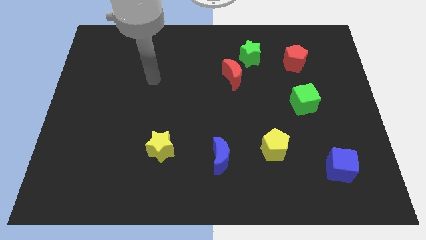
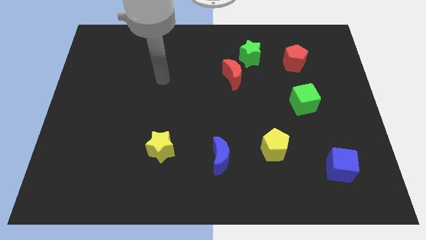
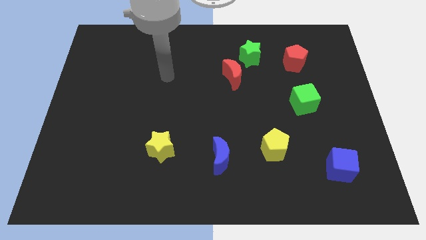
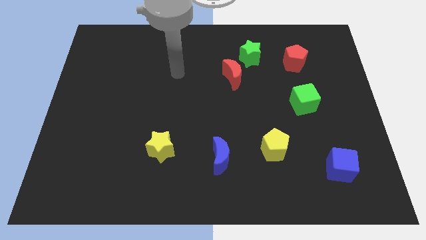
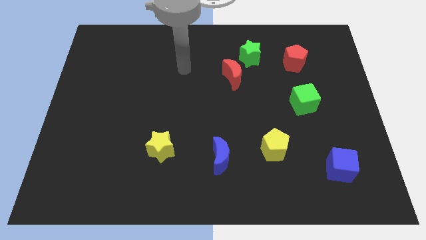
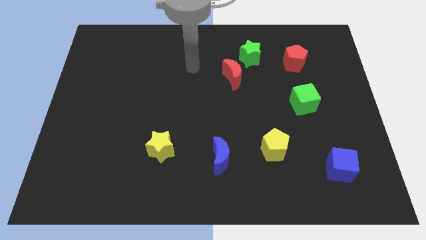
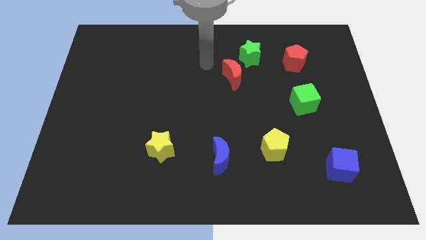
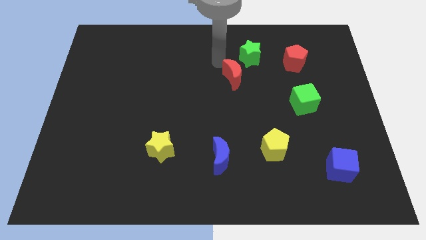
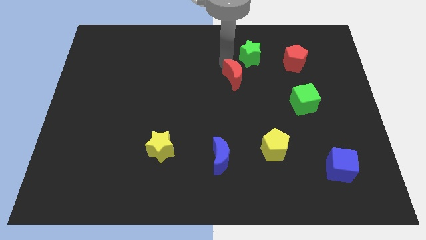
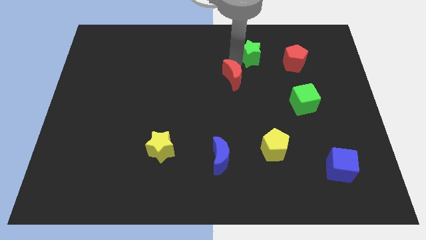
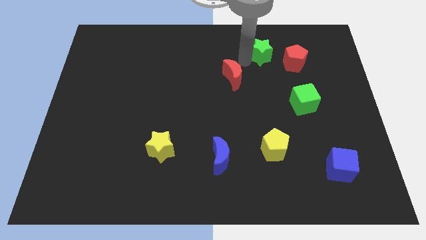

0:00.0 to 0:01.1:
pull the red moon apart from the green star

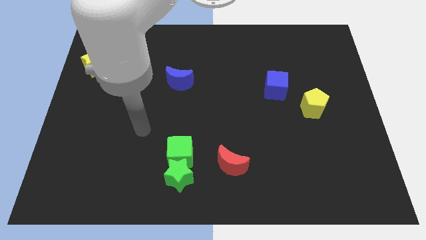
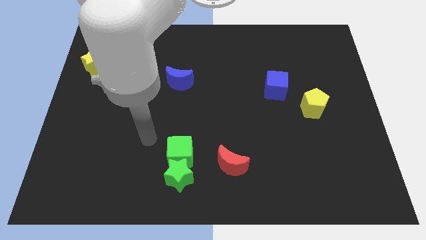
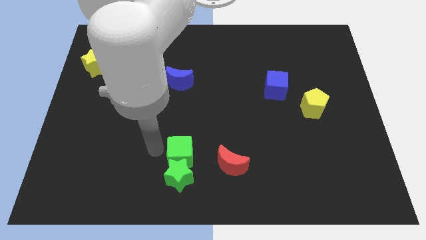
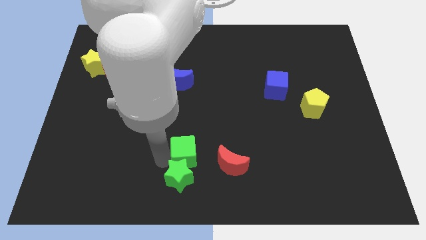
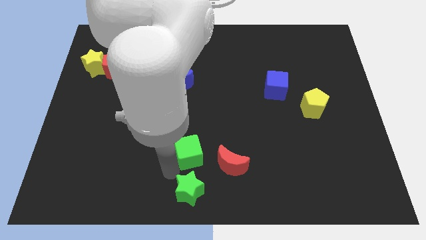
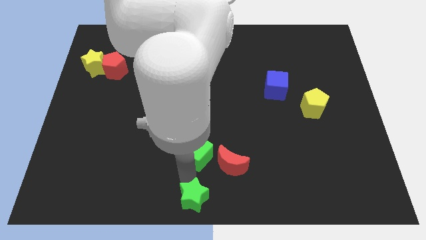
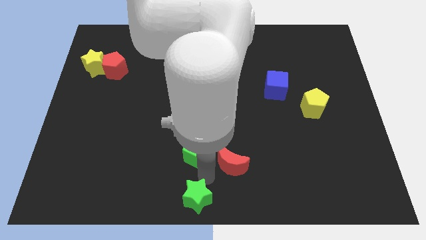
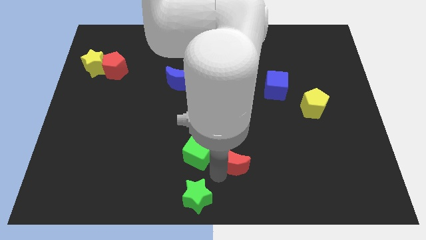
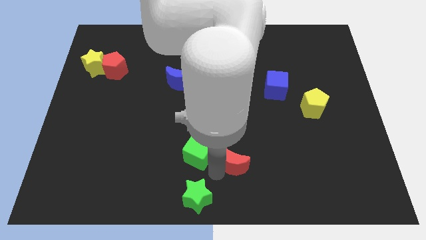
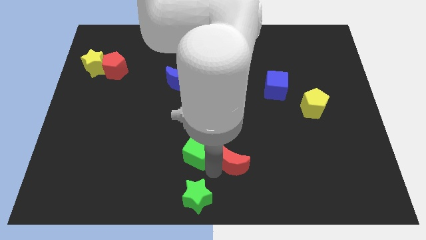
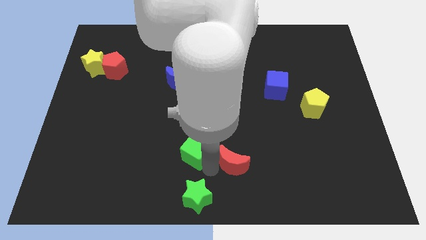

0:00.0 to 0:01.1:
pull the green cube apart from the green star

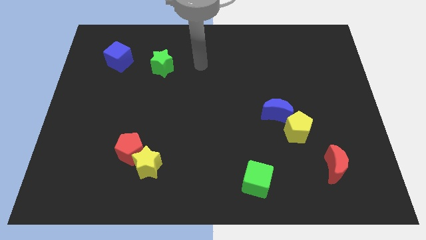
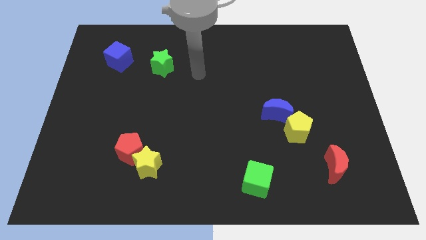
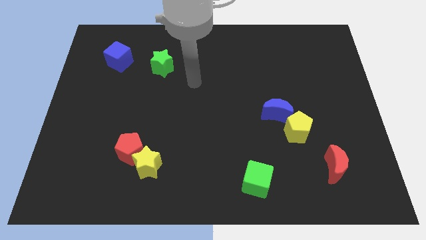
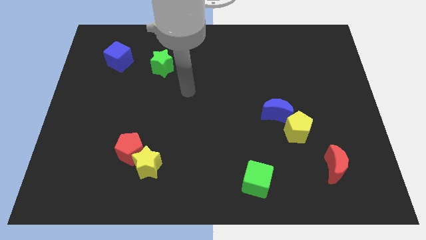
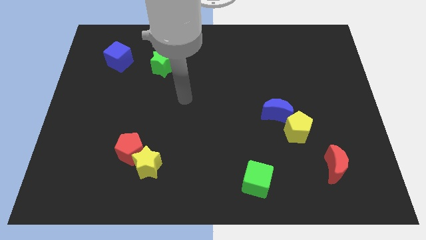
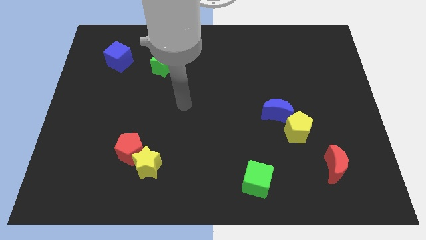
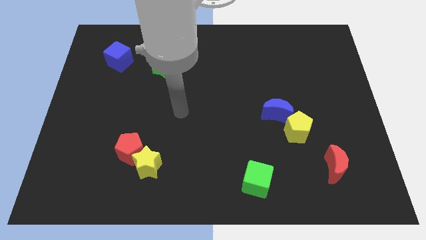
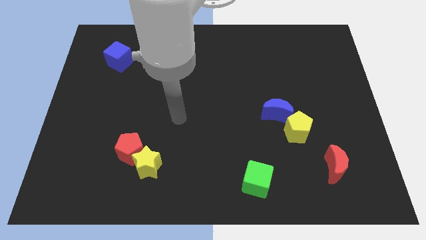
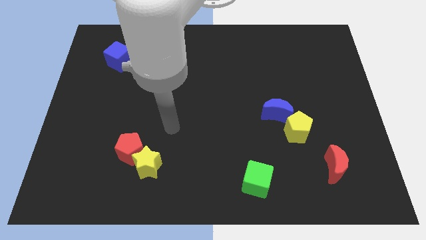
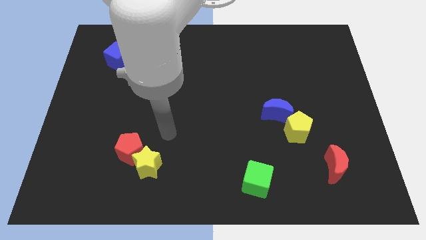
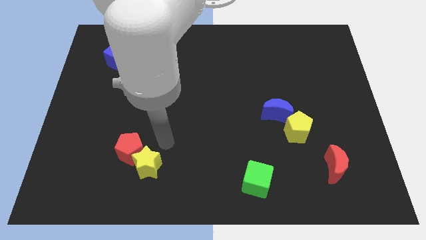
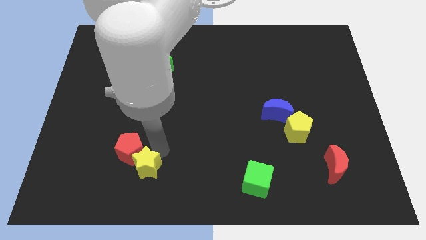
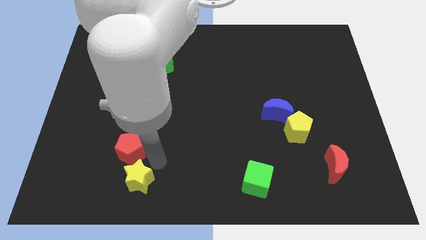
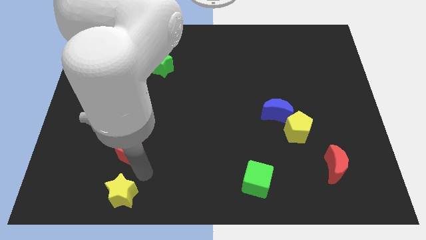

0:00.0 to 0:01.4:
move the red pentagon away from the yellow star

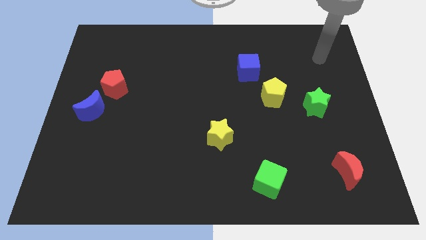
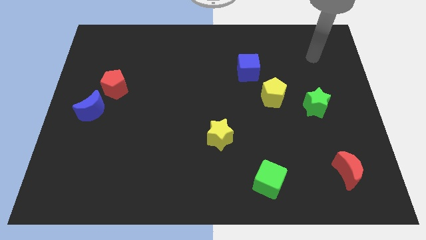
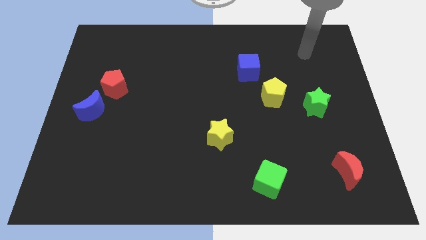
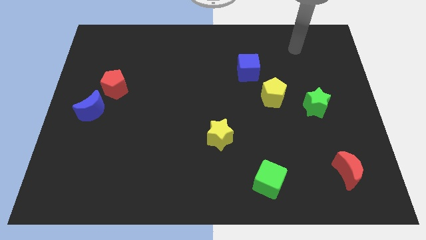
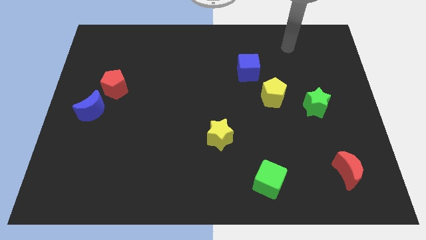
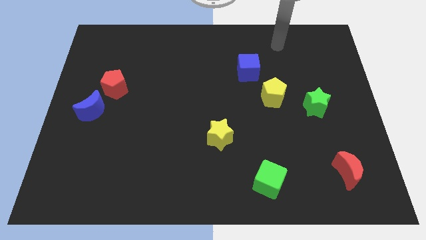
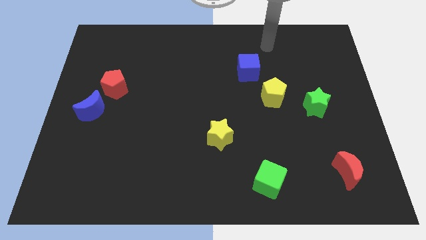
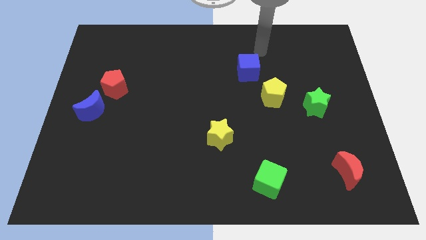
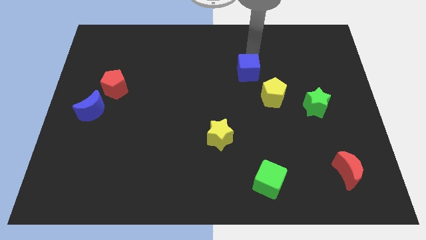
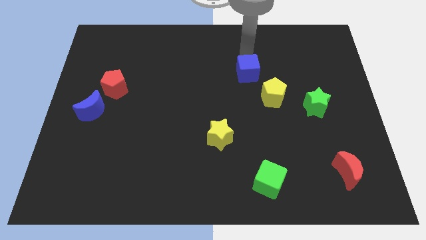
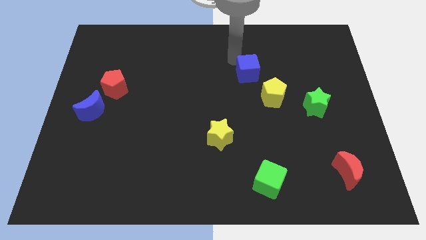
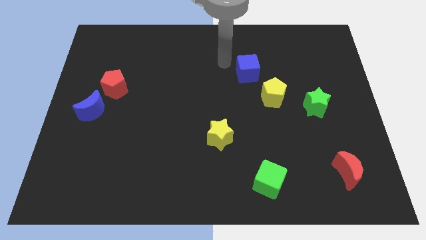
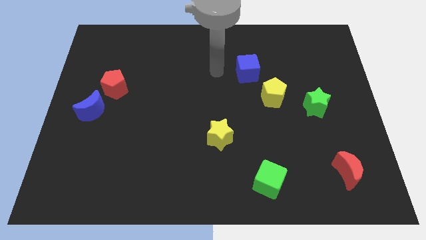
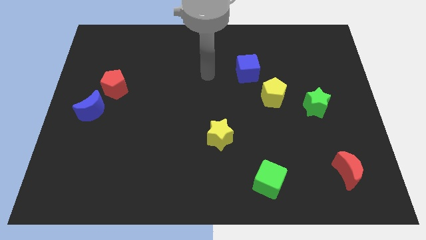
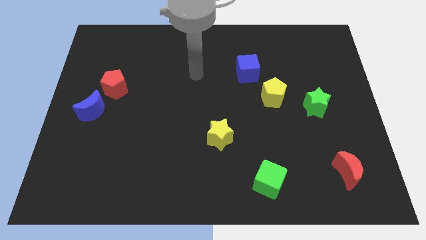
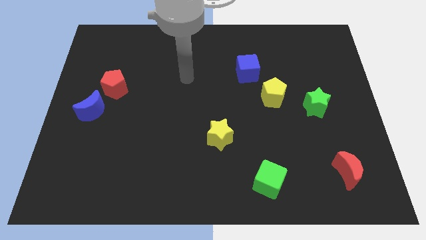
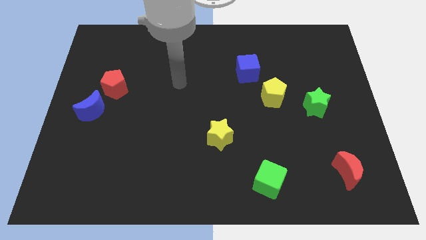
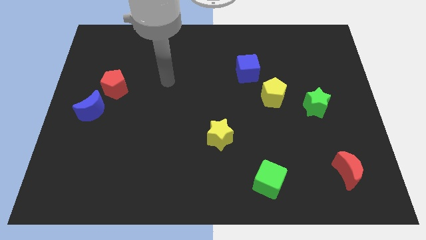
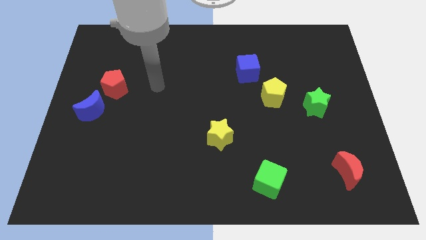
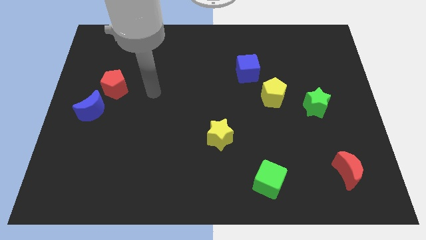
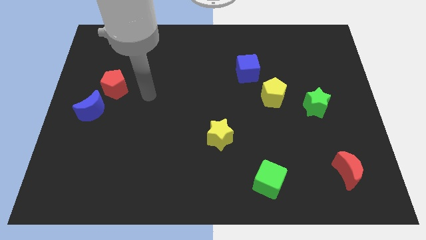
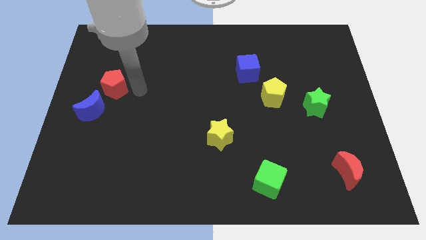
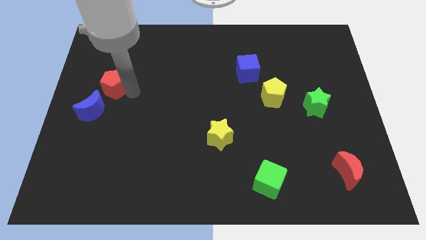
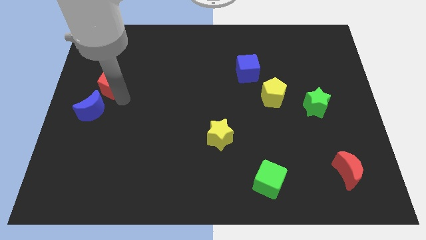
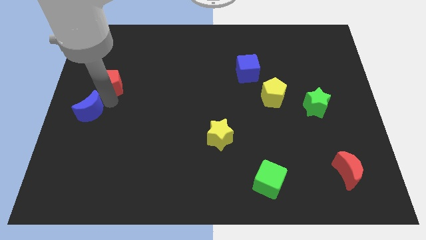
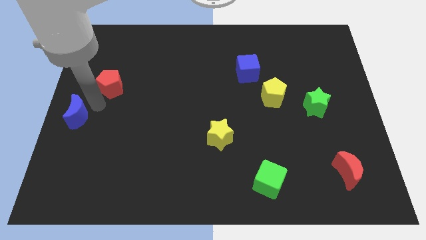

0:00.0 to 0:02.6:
pull the red pentagon apart from the blue moon

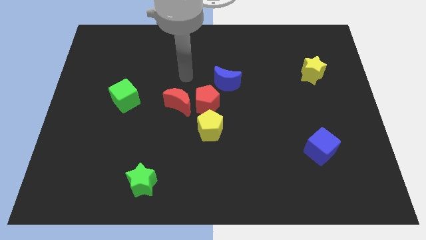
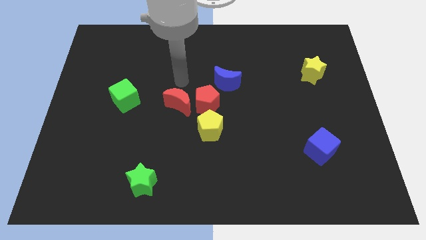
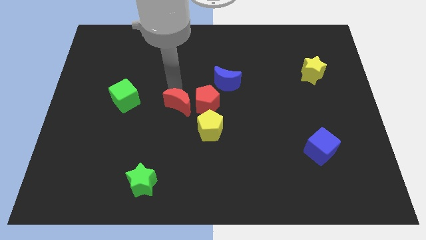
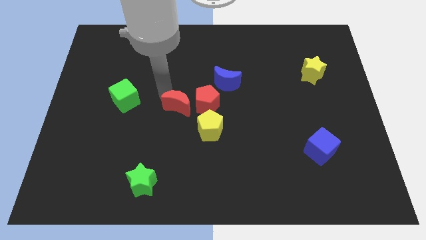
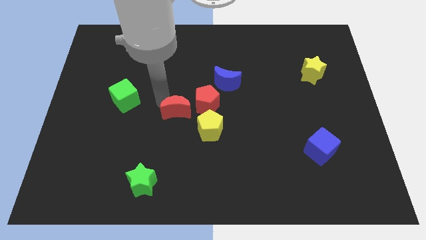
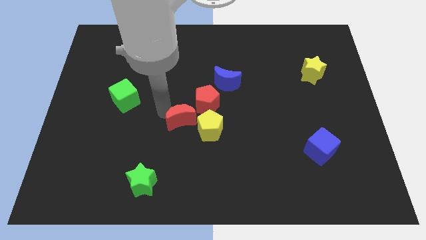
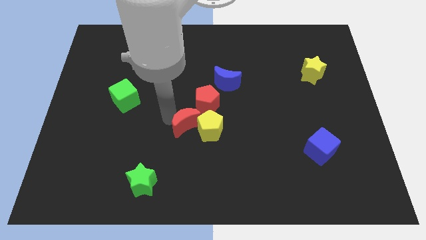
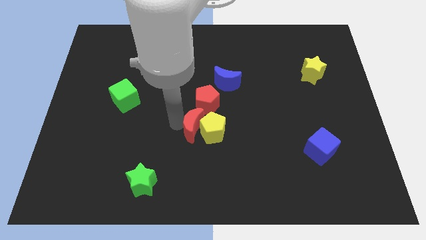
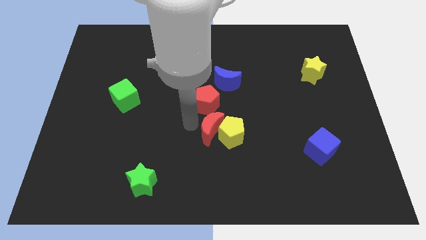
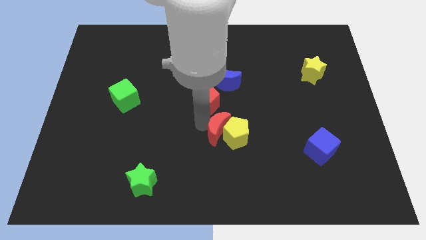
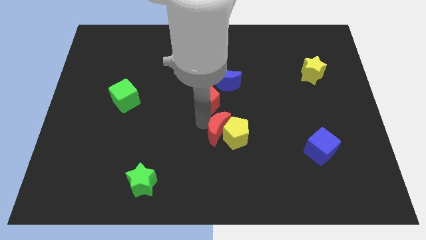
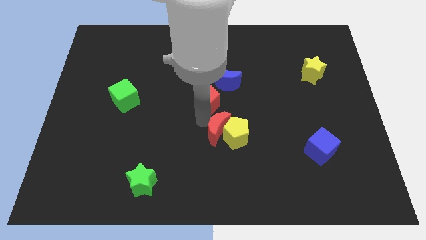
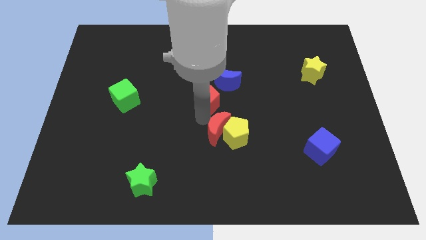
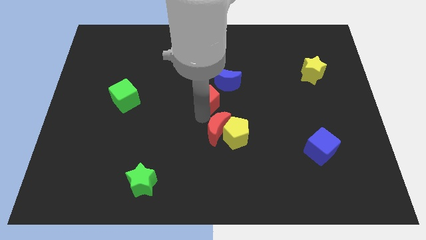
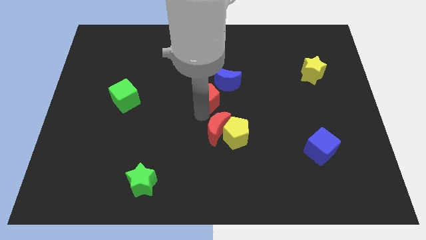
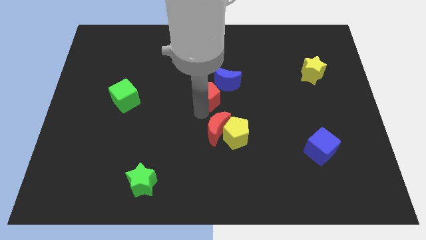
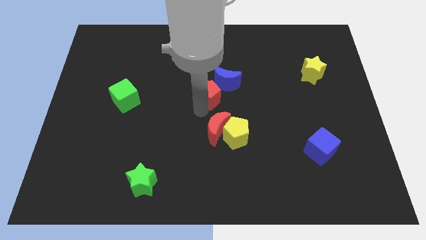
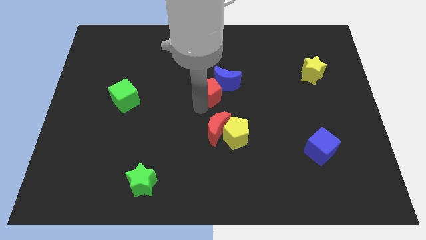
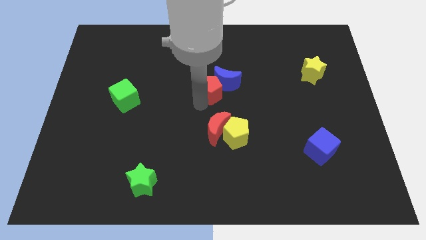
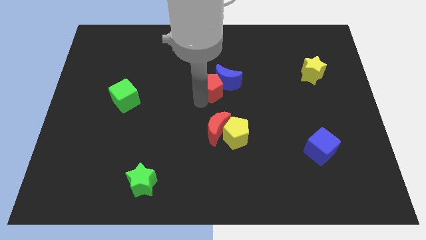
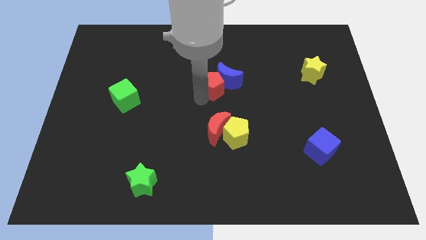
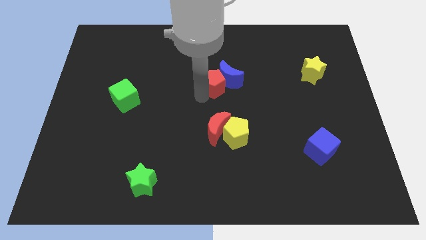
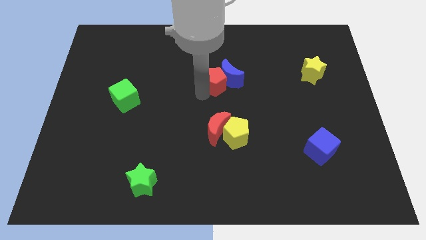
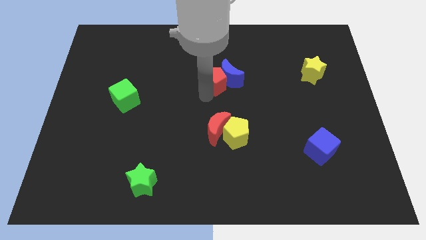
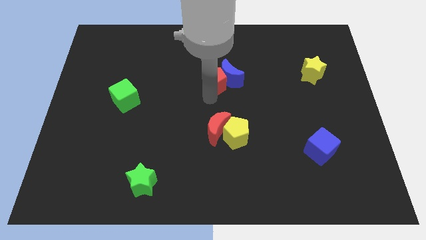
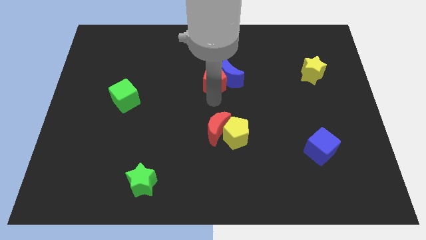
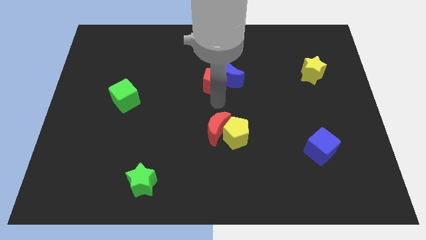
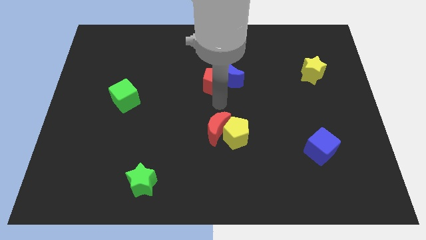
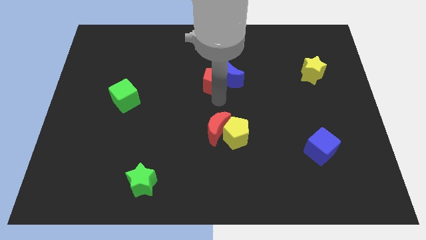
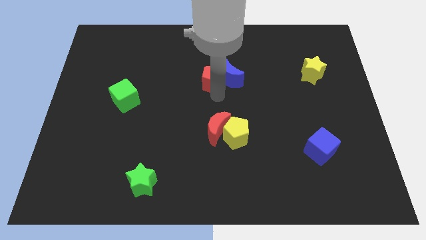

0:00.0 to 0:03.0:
separate the red pentagon from the red moon, yellow pentagon, and blue moon

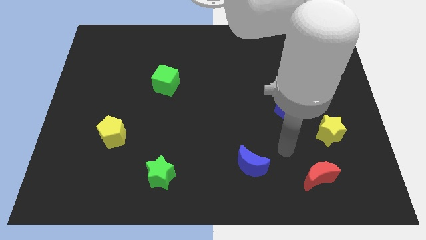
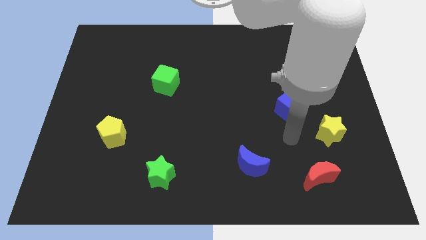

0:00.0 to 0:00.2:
move the blue cube away from the yellow star
